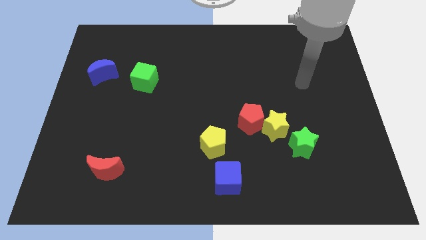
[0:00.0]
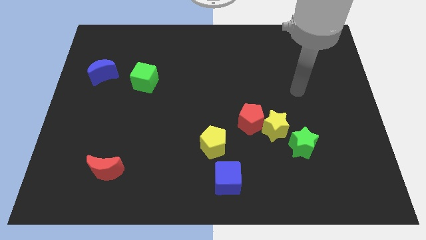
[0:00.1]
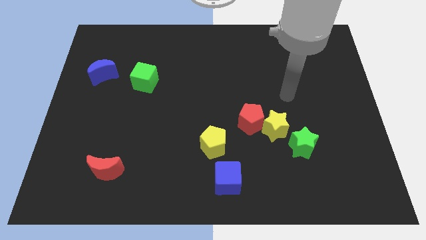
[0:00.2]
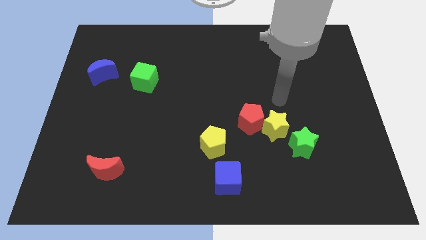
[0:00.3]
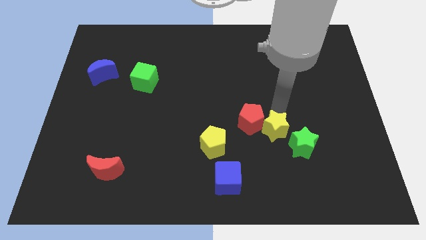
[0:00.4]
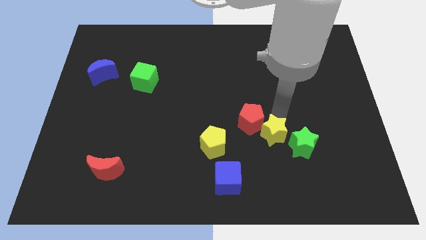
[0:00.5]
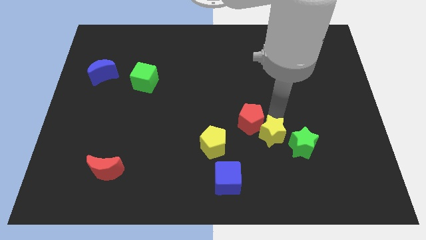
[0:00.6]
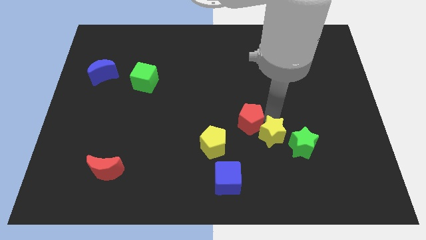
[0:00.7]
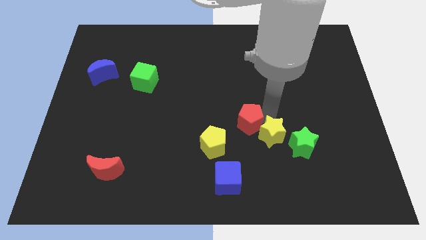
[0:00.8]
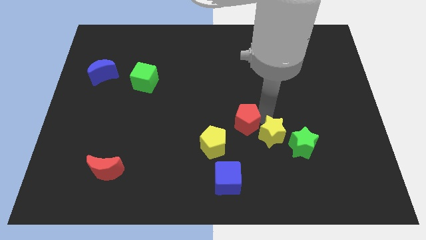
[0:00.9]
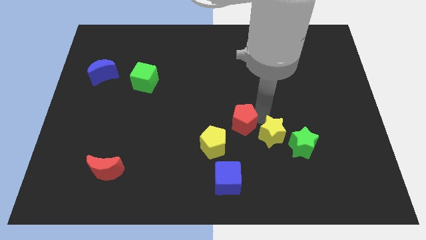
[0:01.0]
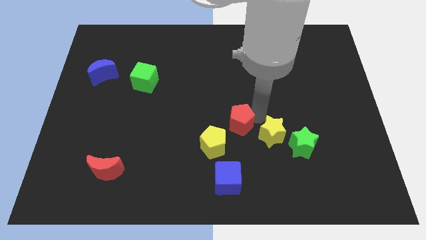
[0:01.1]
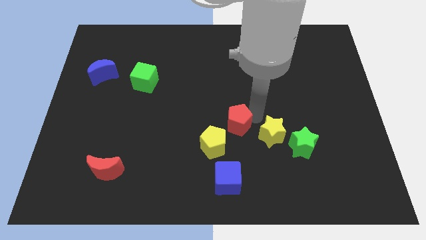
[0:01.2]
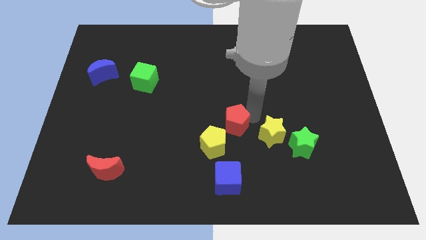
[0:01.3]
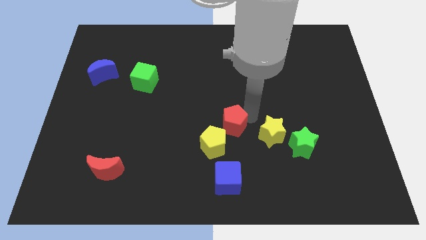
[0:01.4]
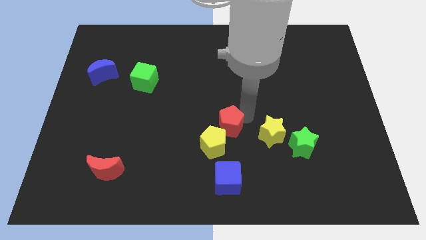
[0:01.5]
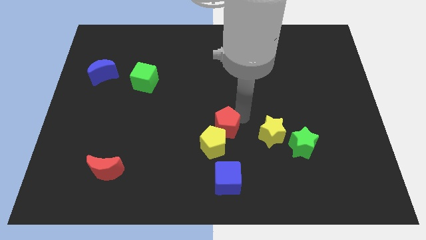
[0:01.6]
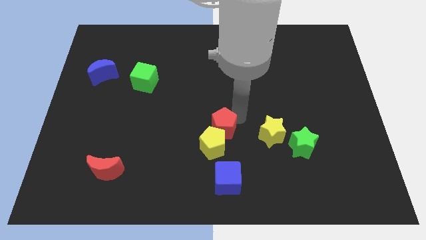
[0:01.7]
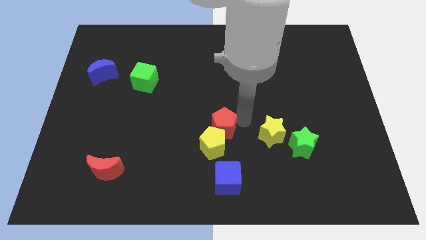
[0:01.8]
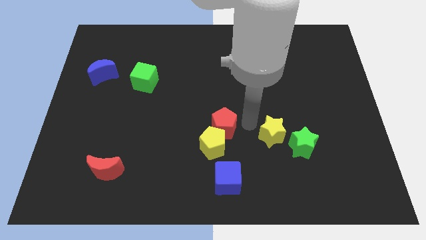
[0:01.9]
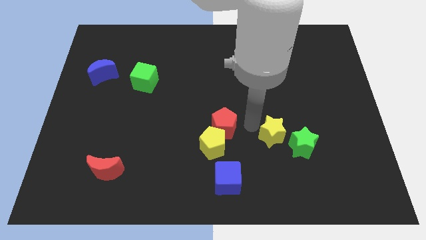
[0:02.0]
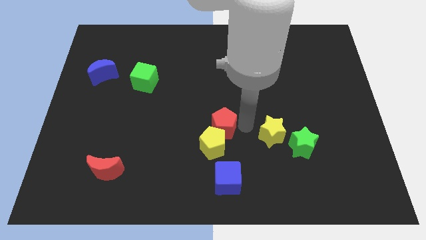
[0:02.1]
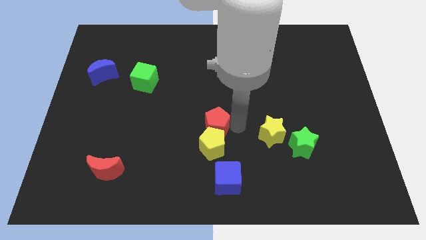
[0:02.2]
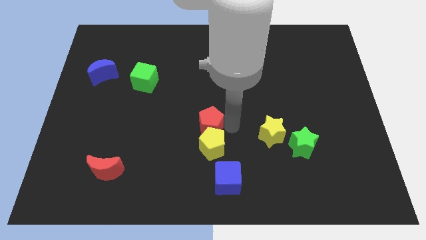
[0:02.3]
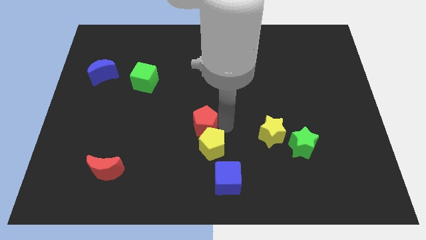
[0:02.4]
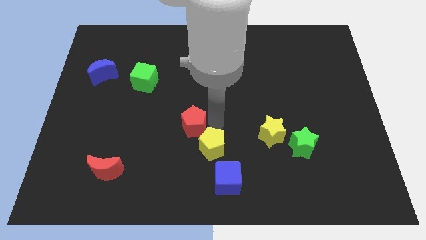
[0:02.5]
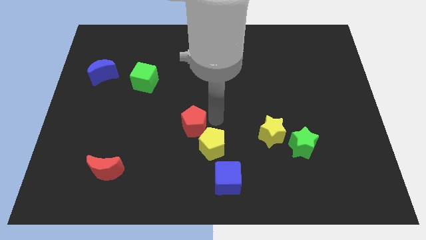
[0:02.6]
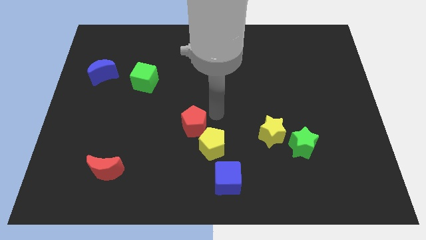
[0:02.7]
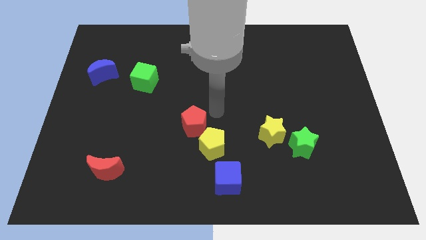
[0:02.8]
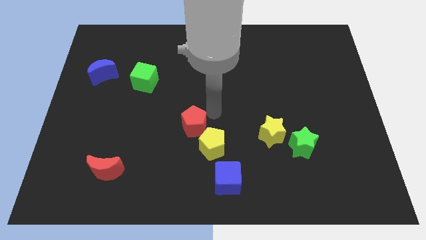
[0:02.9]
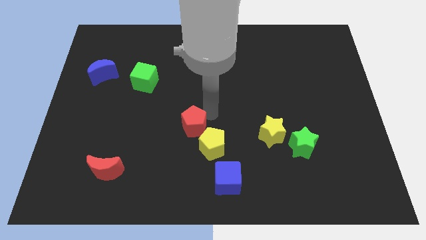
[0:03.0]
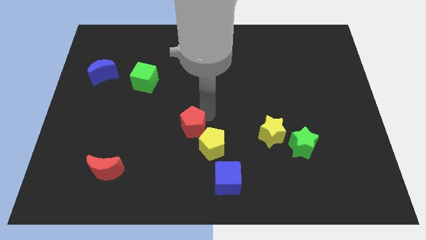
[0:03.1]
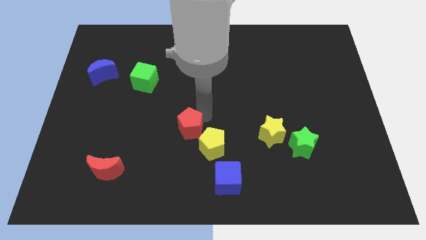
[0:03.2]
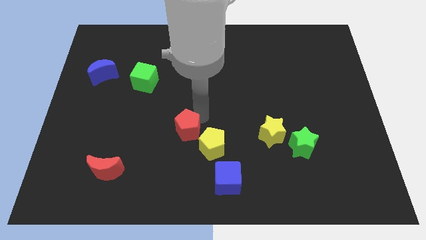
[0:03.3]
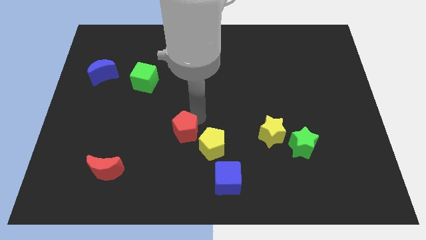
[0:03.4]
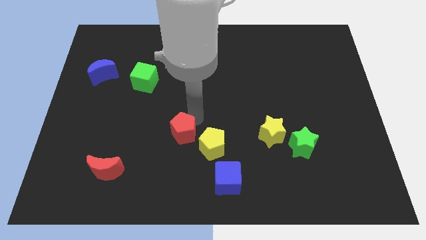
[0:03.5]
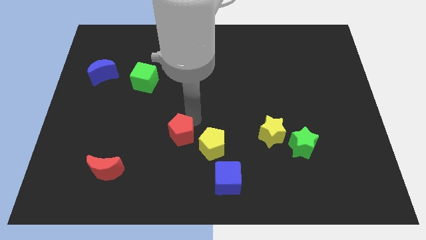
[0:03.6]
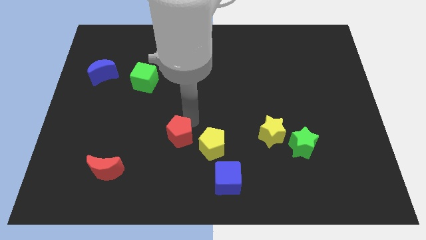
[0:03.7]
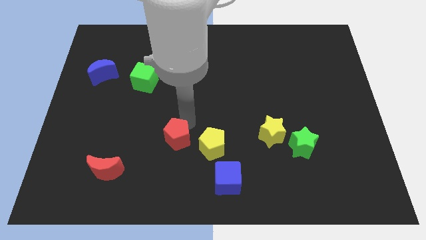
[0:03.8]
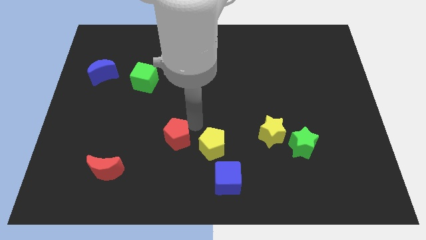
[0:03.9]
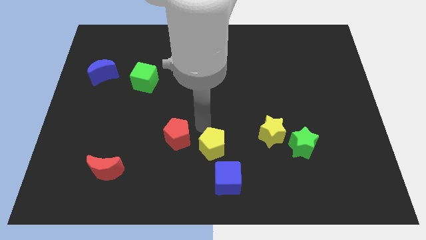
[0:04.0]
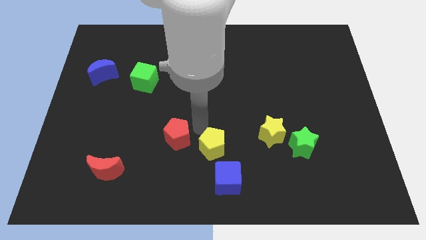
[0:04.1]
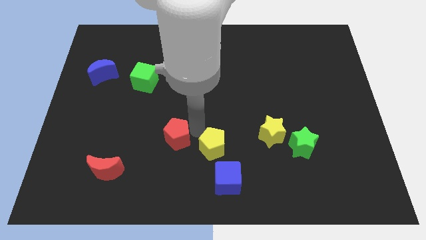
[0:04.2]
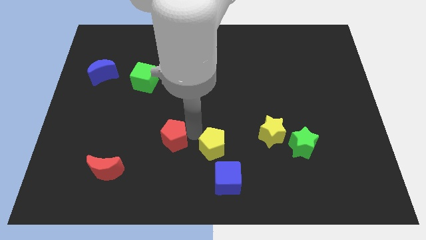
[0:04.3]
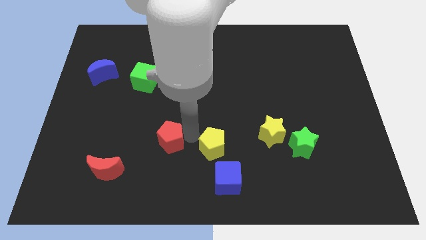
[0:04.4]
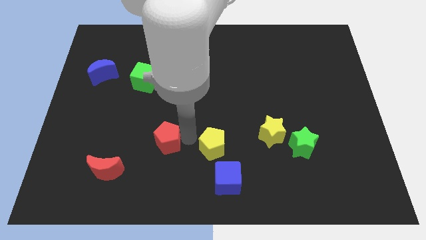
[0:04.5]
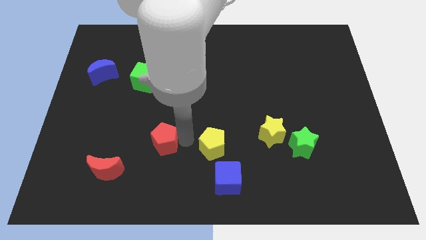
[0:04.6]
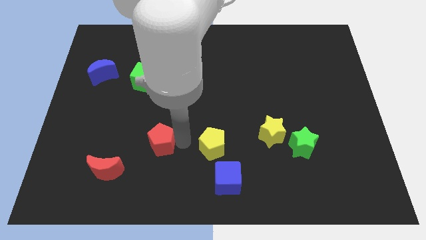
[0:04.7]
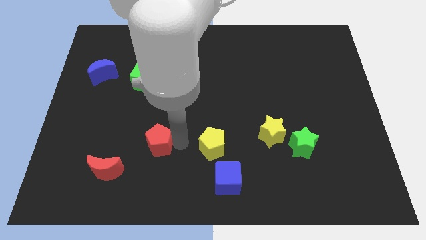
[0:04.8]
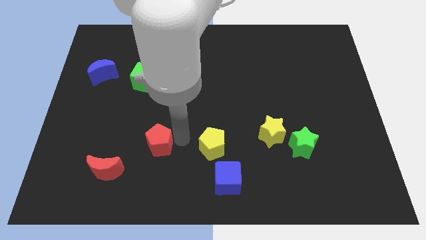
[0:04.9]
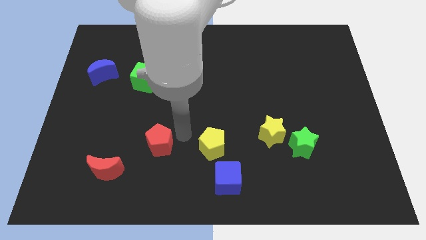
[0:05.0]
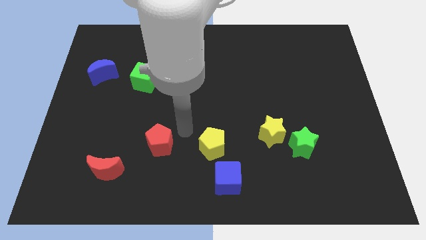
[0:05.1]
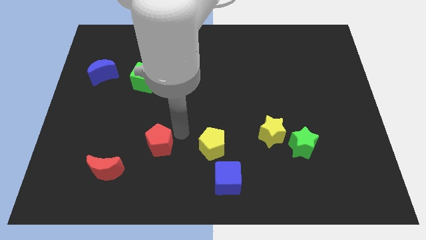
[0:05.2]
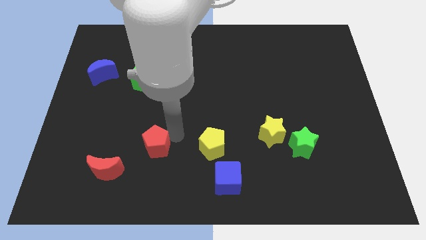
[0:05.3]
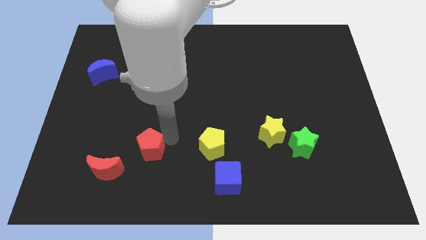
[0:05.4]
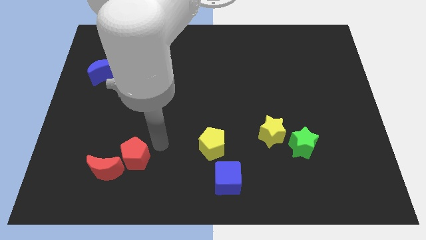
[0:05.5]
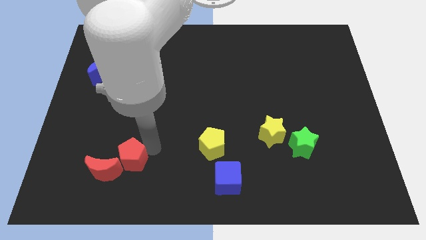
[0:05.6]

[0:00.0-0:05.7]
slide the red pentagon close to the red moon
